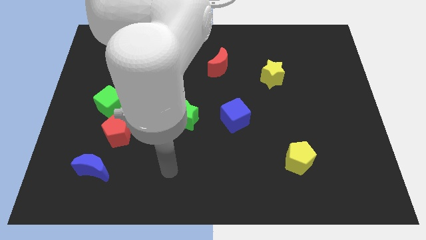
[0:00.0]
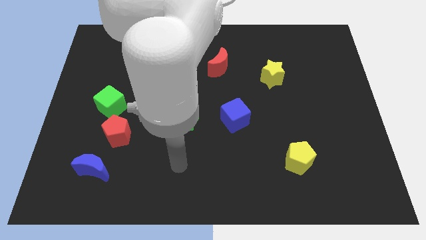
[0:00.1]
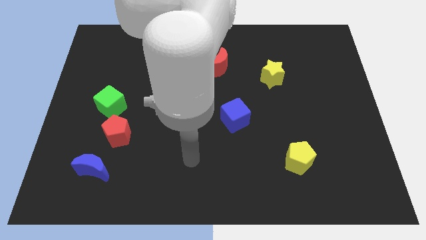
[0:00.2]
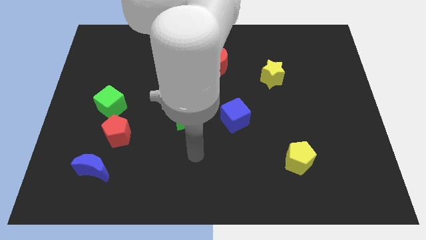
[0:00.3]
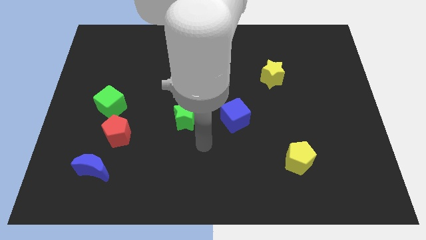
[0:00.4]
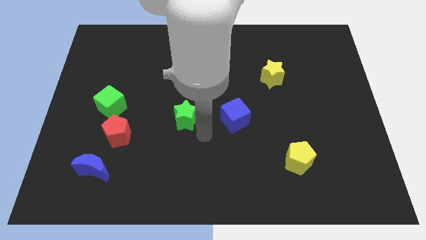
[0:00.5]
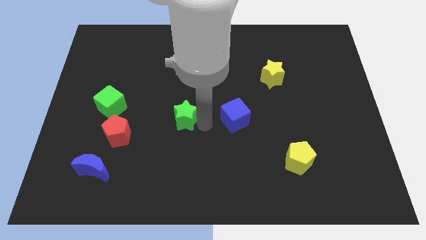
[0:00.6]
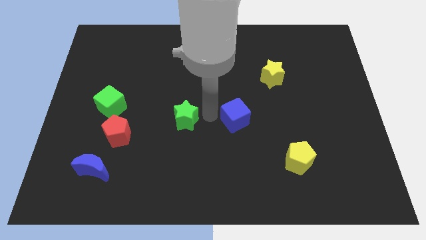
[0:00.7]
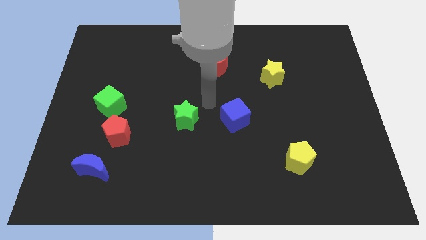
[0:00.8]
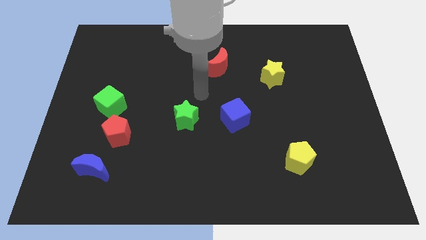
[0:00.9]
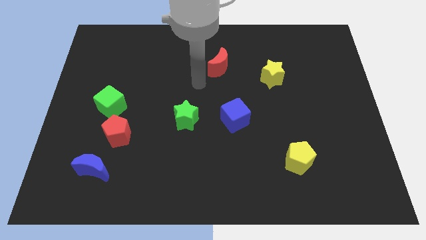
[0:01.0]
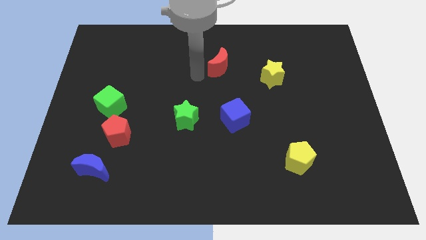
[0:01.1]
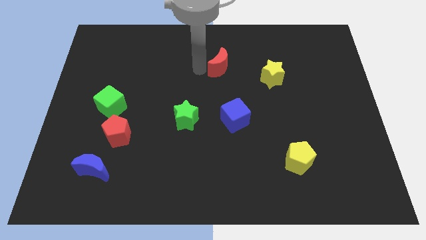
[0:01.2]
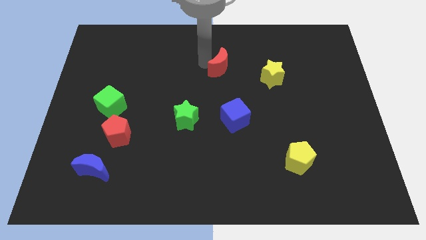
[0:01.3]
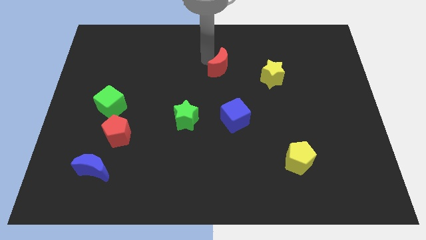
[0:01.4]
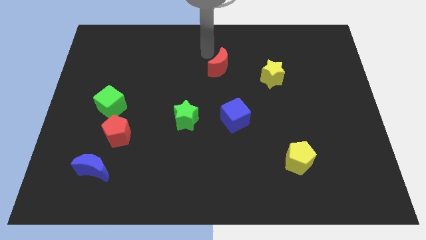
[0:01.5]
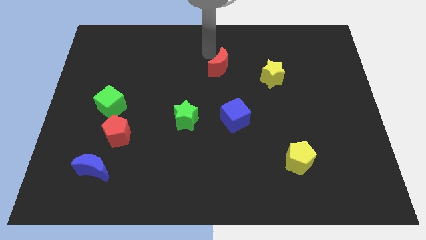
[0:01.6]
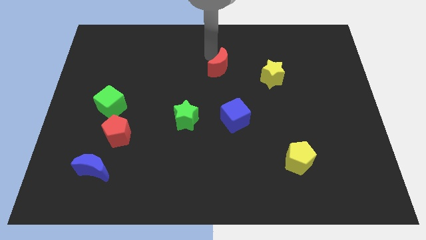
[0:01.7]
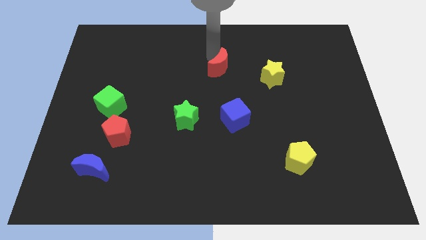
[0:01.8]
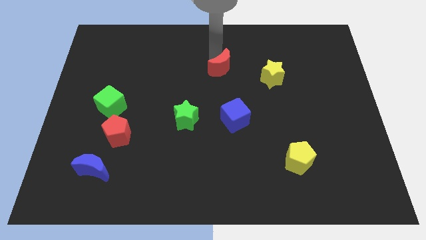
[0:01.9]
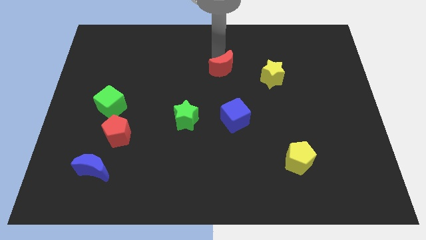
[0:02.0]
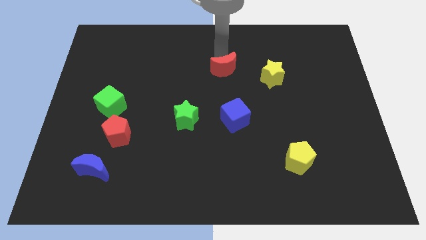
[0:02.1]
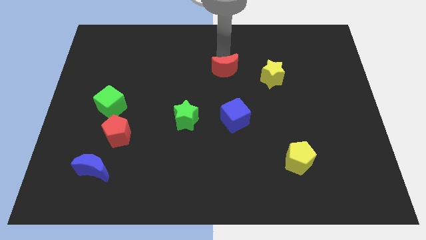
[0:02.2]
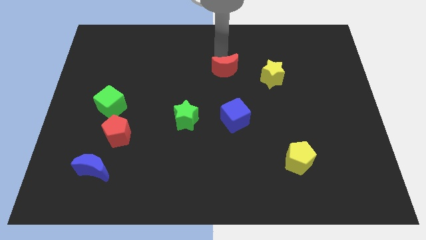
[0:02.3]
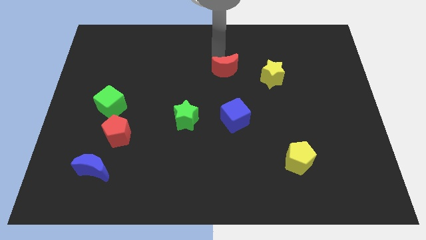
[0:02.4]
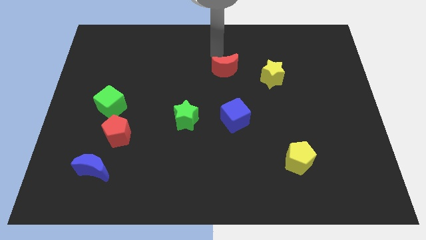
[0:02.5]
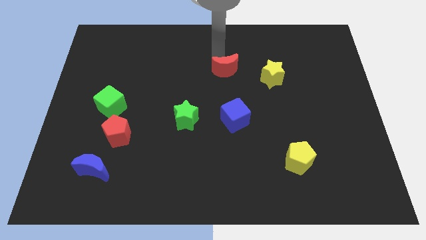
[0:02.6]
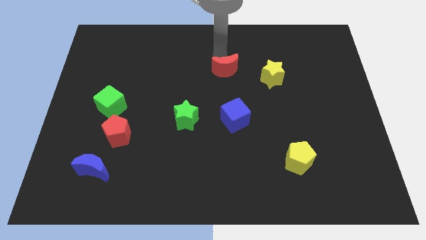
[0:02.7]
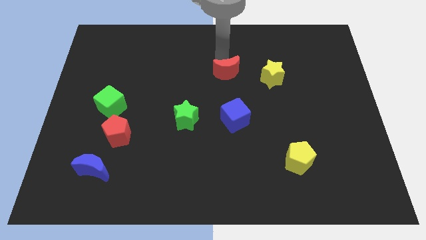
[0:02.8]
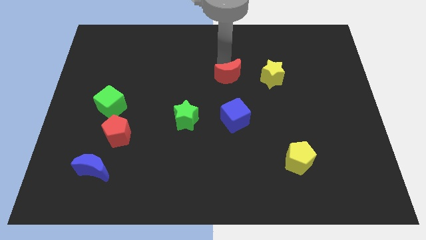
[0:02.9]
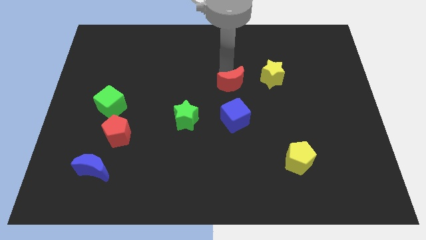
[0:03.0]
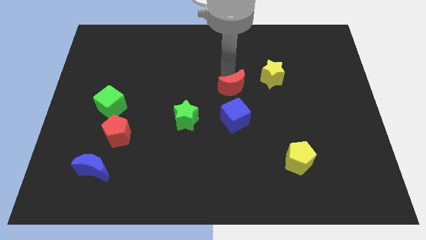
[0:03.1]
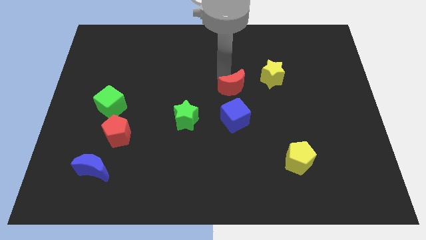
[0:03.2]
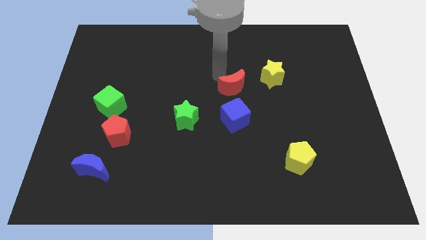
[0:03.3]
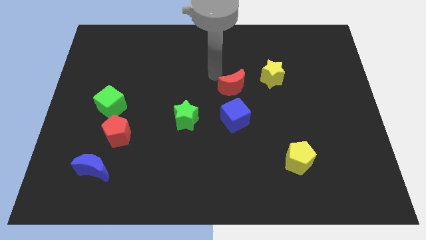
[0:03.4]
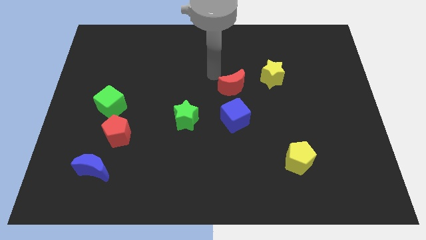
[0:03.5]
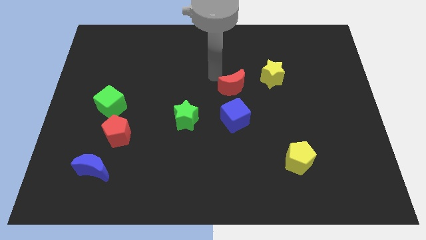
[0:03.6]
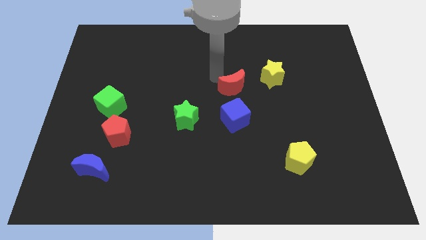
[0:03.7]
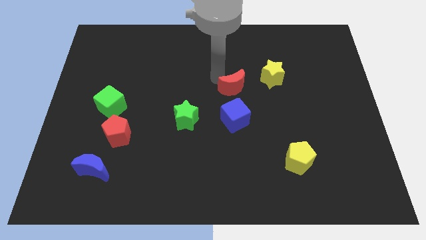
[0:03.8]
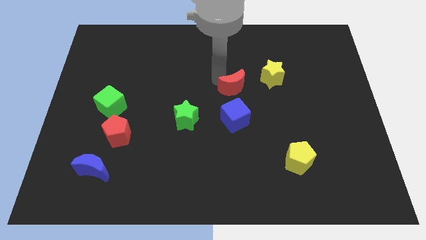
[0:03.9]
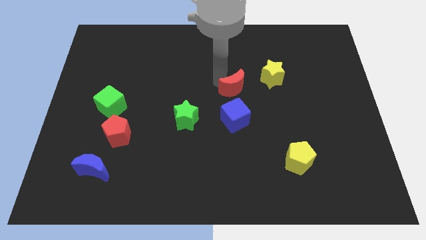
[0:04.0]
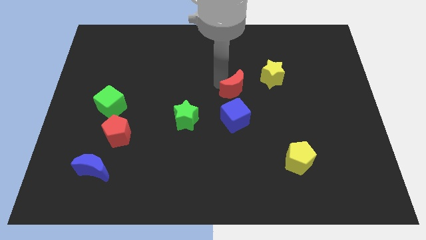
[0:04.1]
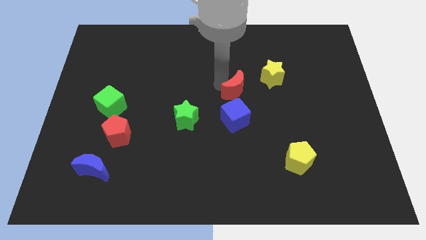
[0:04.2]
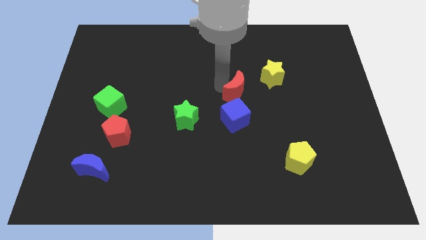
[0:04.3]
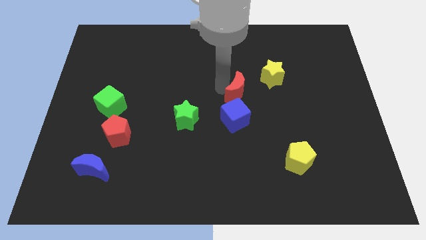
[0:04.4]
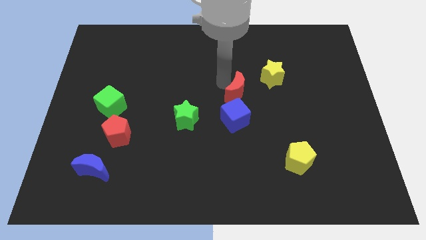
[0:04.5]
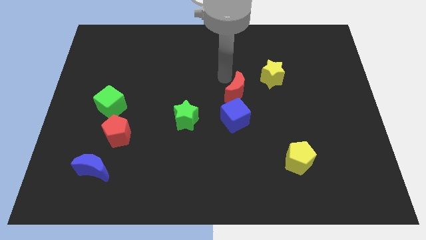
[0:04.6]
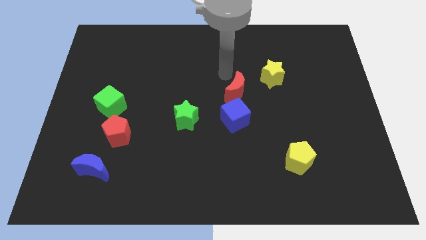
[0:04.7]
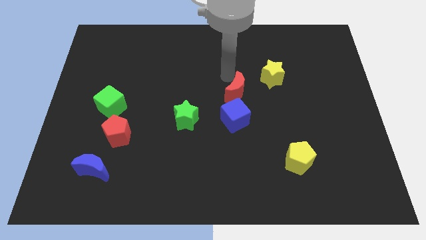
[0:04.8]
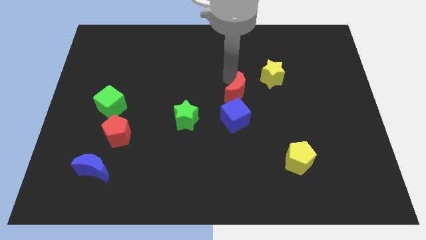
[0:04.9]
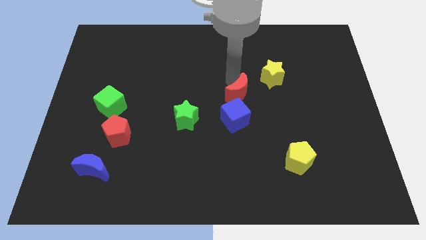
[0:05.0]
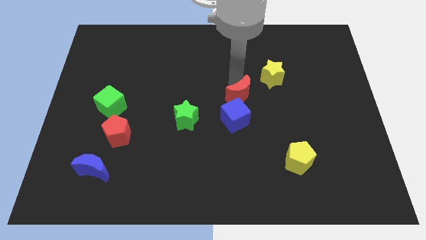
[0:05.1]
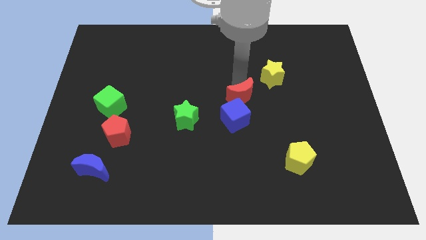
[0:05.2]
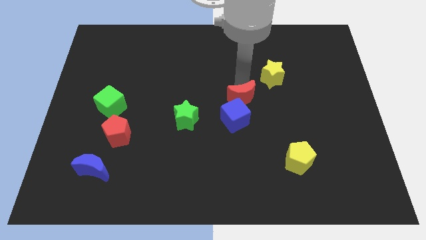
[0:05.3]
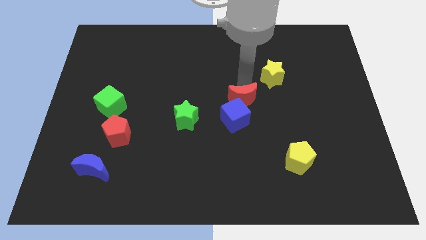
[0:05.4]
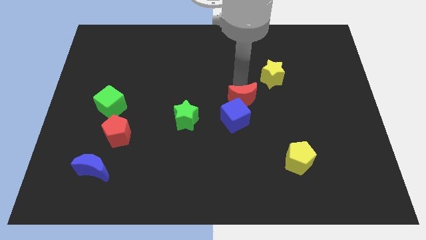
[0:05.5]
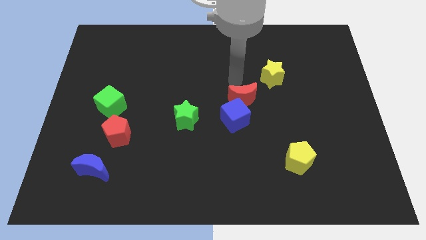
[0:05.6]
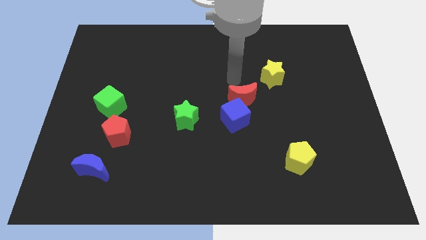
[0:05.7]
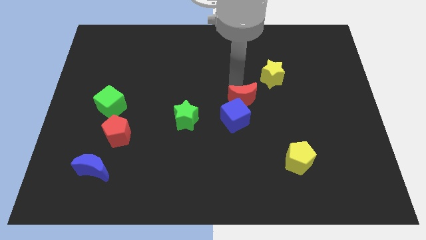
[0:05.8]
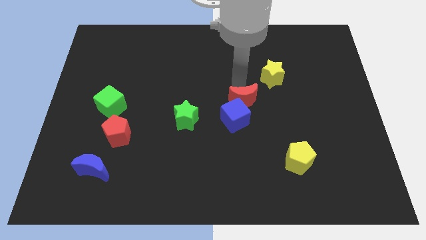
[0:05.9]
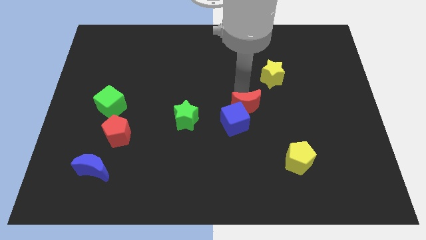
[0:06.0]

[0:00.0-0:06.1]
push the red moon to the right of the green star

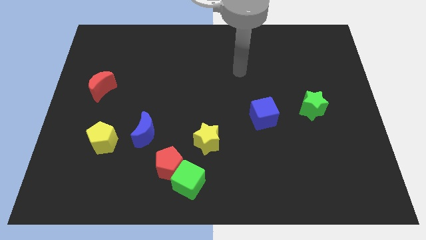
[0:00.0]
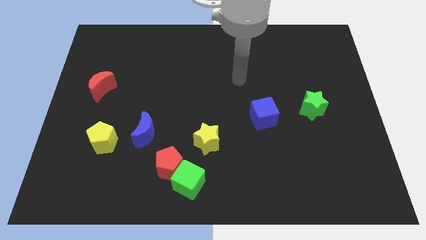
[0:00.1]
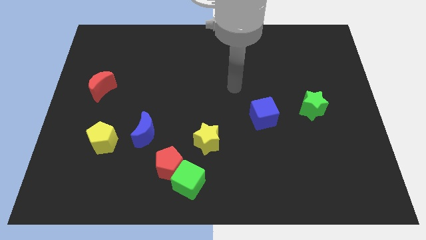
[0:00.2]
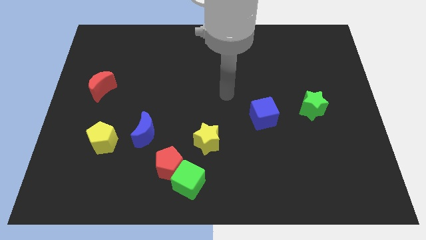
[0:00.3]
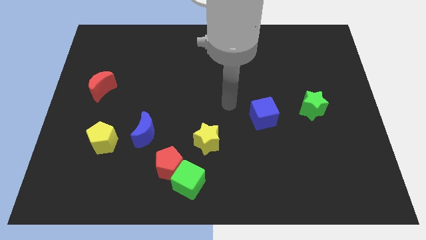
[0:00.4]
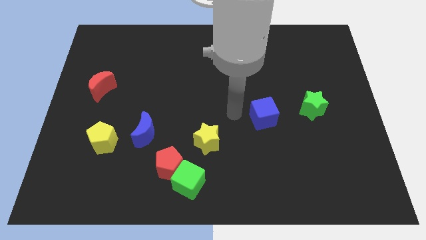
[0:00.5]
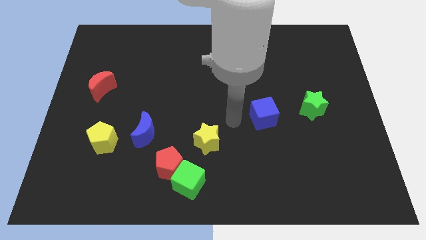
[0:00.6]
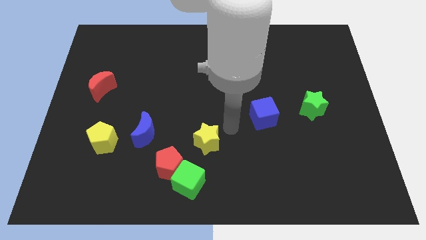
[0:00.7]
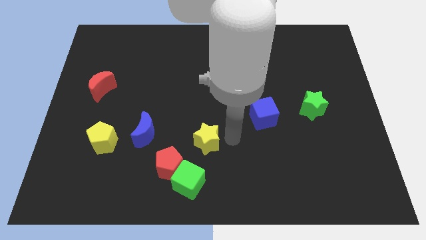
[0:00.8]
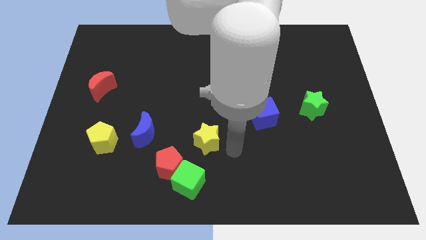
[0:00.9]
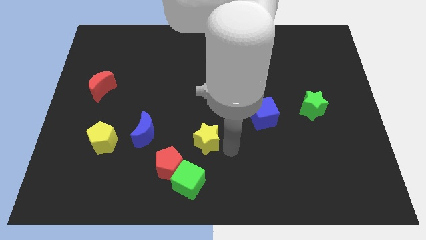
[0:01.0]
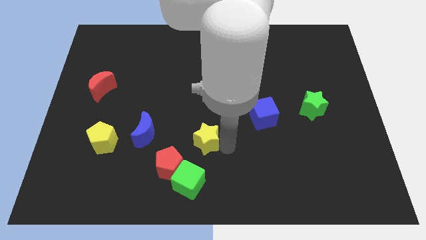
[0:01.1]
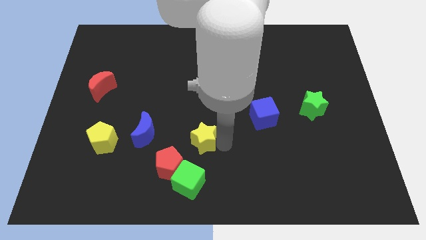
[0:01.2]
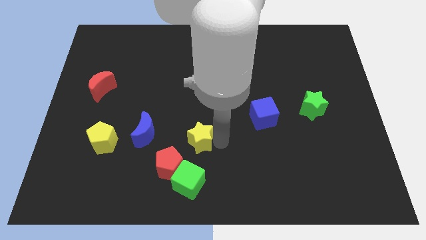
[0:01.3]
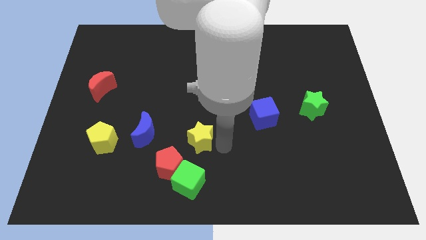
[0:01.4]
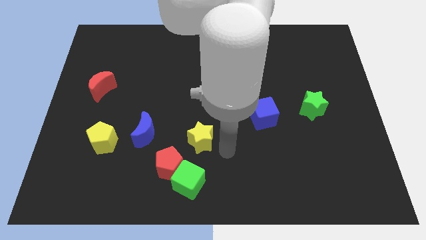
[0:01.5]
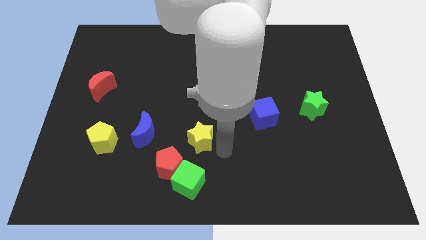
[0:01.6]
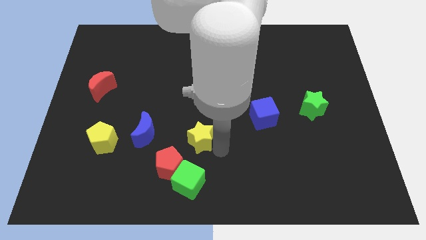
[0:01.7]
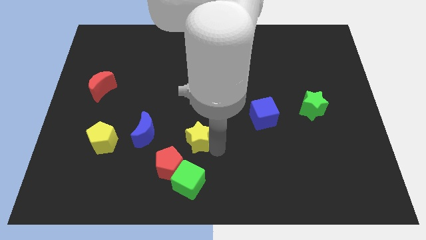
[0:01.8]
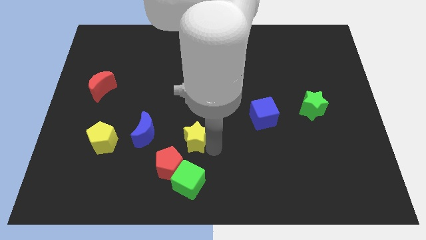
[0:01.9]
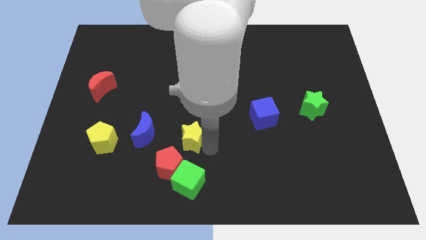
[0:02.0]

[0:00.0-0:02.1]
push the yellow star above the red pentagon
